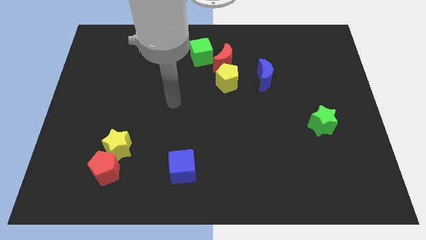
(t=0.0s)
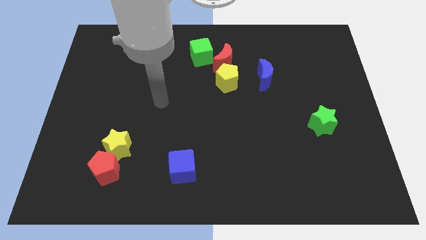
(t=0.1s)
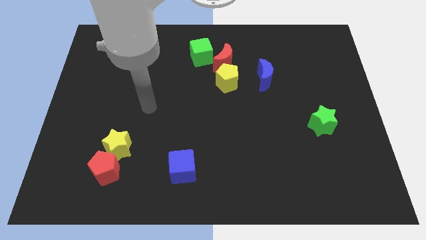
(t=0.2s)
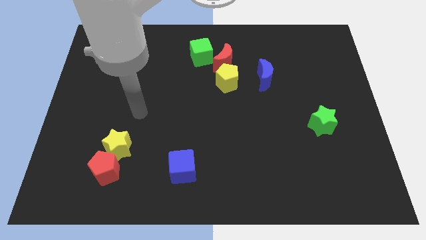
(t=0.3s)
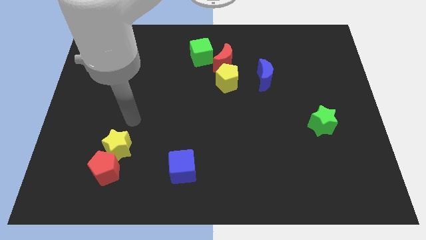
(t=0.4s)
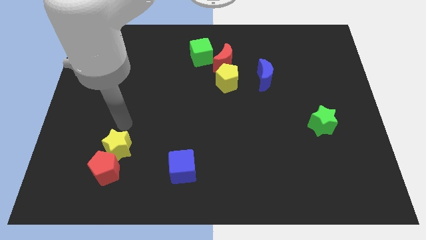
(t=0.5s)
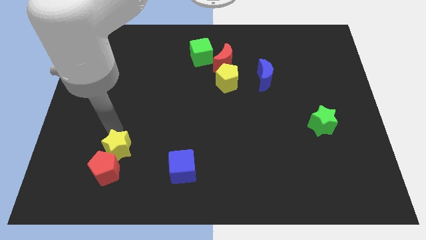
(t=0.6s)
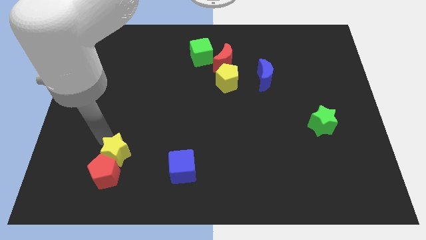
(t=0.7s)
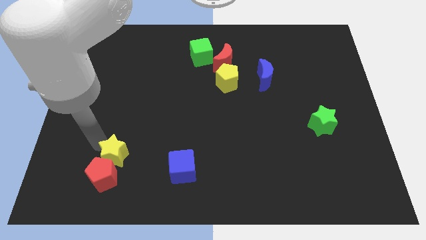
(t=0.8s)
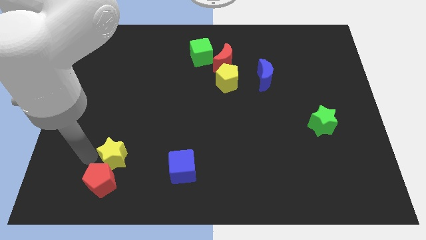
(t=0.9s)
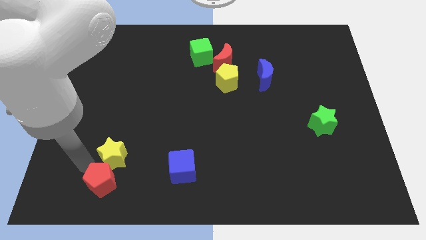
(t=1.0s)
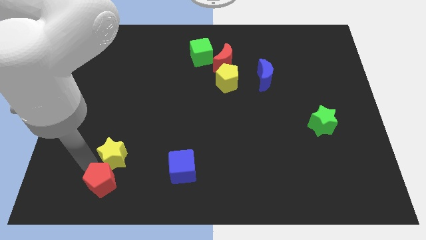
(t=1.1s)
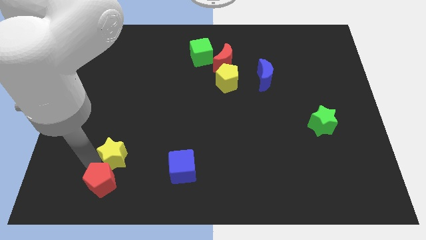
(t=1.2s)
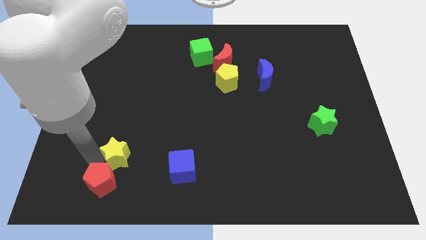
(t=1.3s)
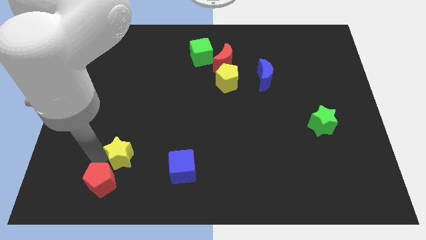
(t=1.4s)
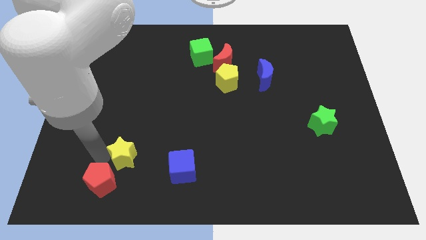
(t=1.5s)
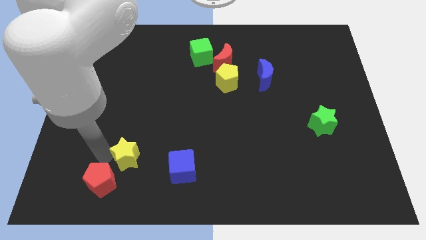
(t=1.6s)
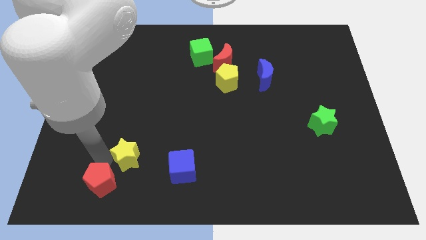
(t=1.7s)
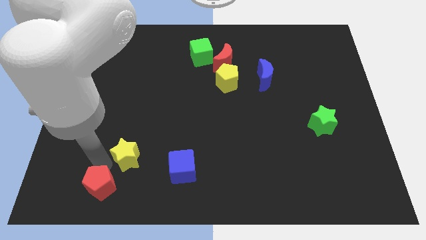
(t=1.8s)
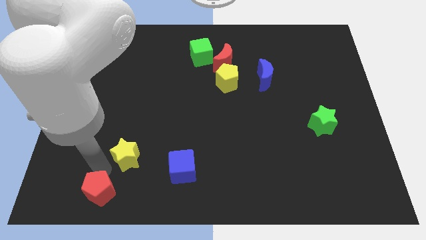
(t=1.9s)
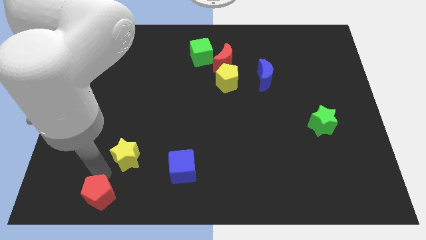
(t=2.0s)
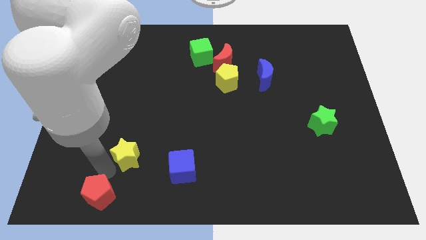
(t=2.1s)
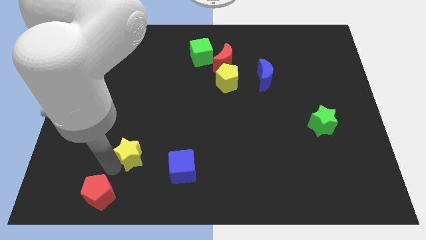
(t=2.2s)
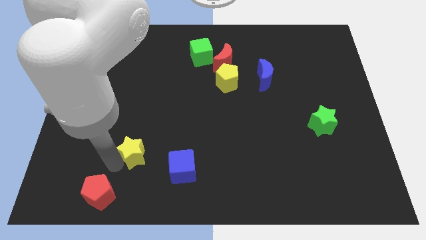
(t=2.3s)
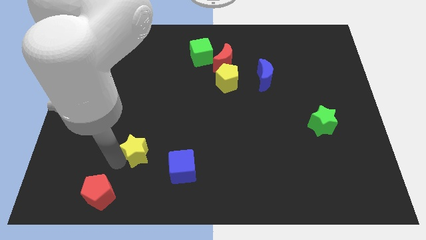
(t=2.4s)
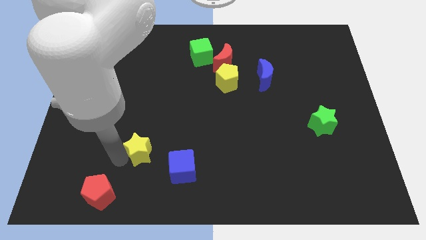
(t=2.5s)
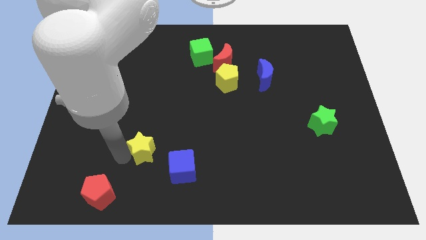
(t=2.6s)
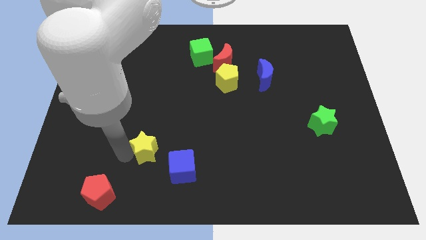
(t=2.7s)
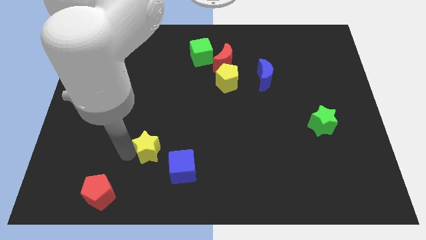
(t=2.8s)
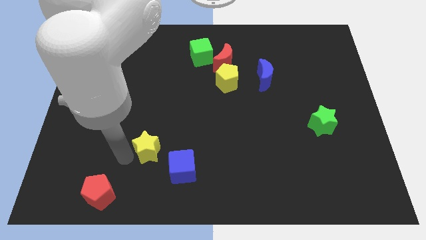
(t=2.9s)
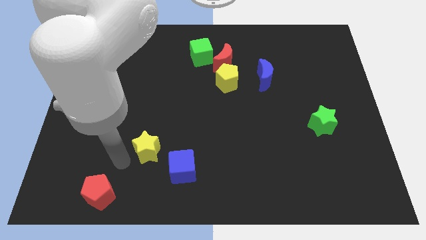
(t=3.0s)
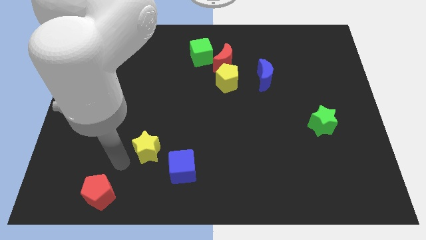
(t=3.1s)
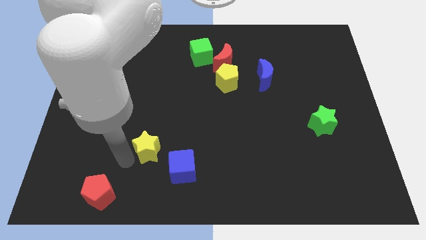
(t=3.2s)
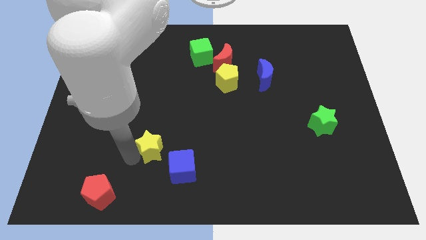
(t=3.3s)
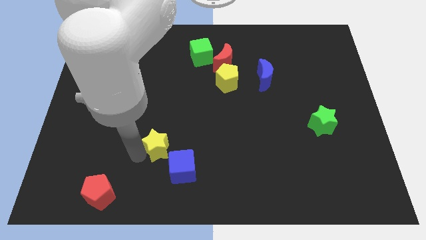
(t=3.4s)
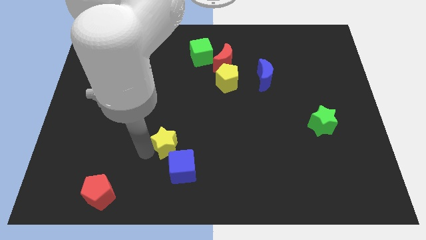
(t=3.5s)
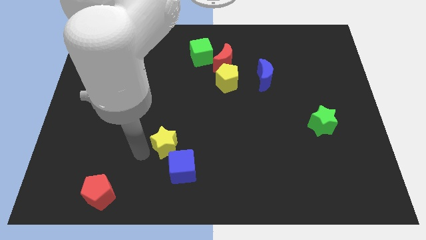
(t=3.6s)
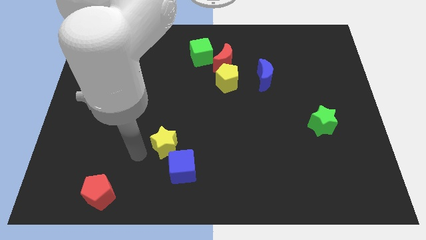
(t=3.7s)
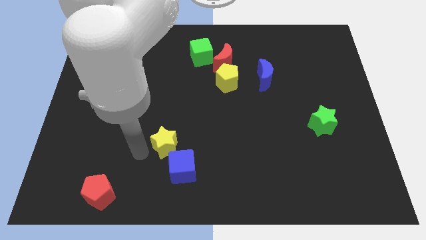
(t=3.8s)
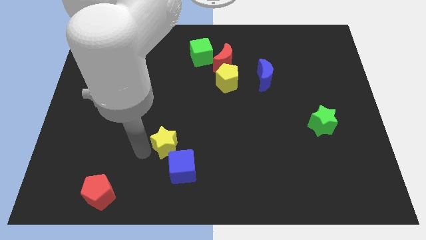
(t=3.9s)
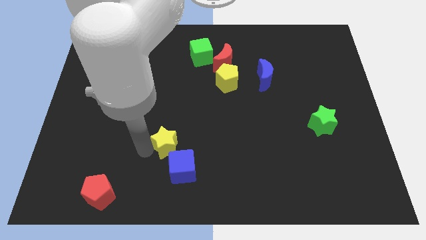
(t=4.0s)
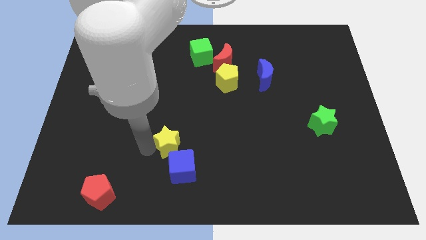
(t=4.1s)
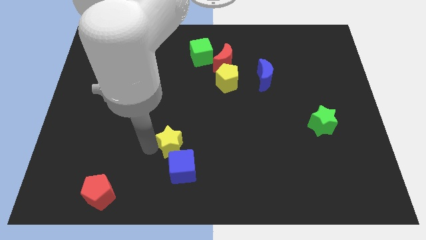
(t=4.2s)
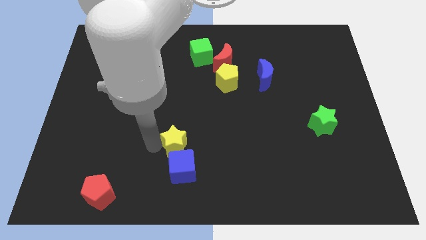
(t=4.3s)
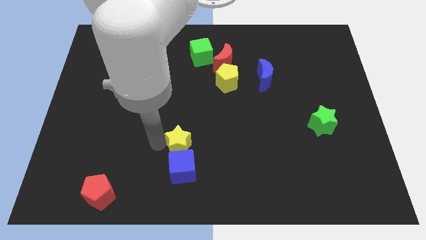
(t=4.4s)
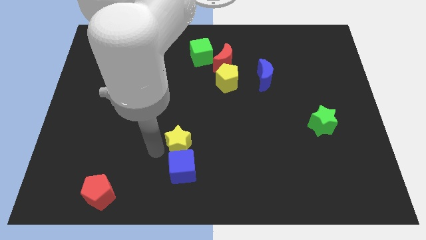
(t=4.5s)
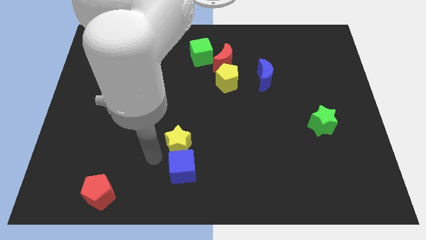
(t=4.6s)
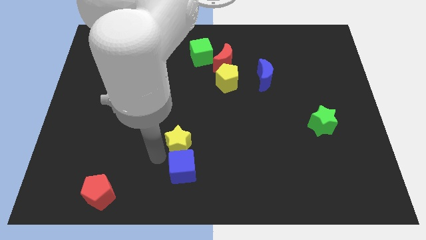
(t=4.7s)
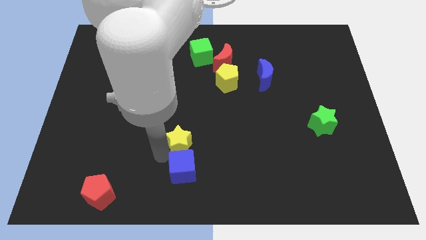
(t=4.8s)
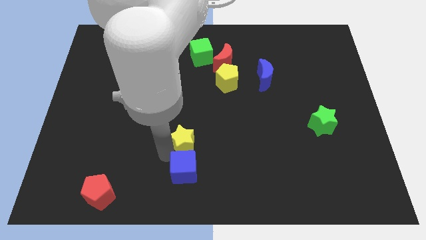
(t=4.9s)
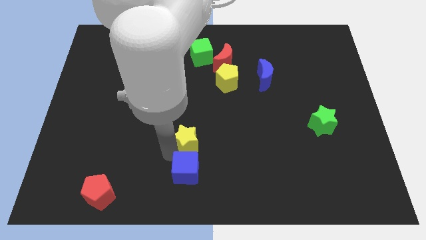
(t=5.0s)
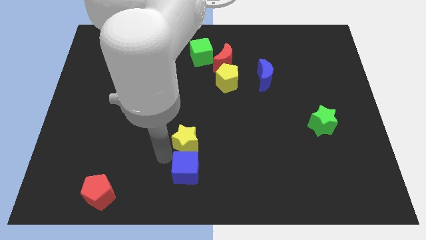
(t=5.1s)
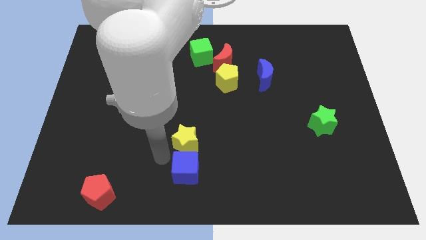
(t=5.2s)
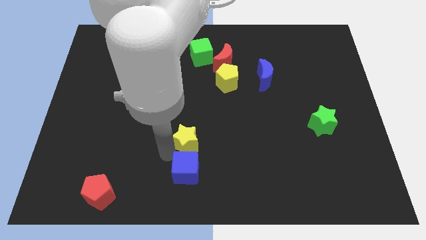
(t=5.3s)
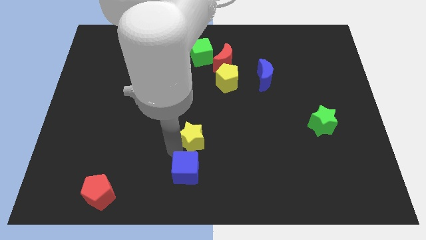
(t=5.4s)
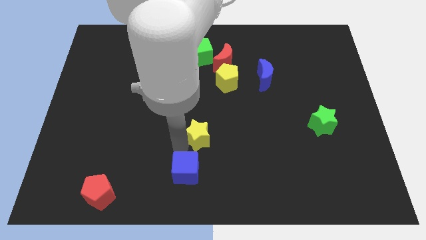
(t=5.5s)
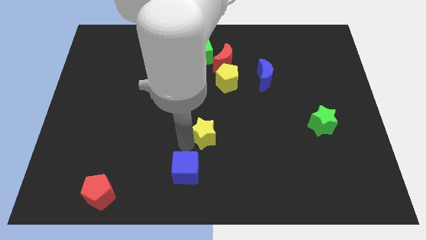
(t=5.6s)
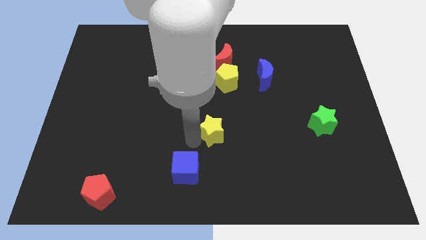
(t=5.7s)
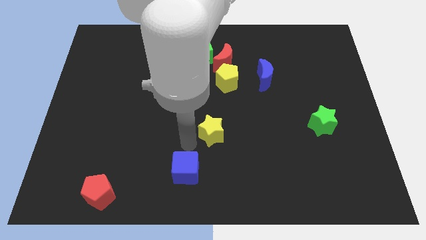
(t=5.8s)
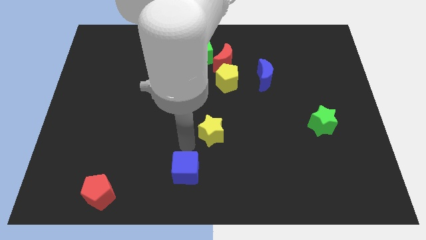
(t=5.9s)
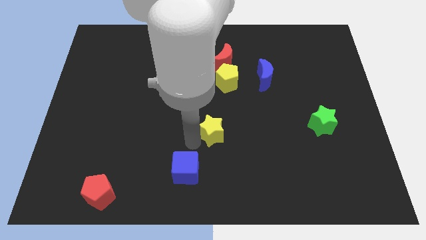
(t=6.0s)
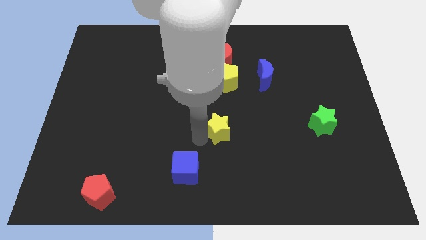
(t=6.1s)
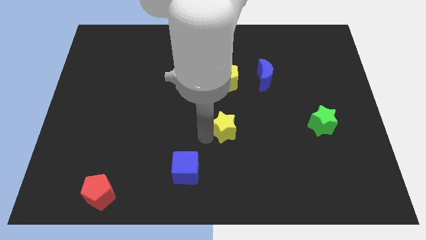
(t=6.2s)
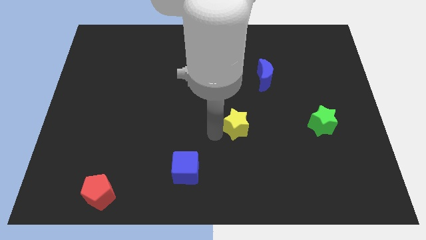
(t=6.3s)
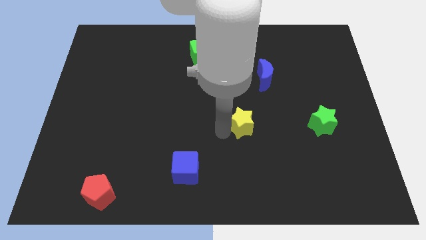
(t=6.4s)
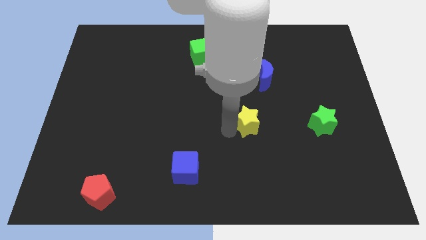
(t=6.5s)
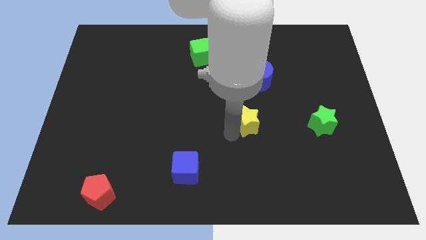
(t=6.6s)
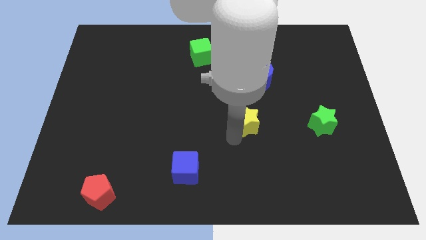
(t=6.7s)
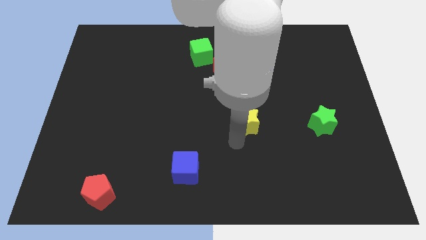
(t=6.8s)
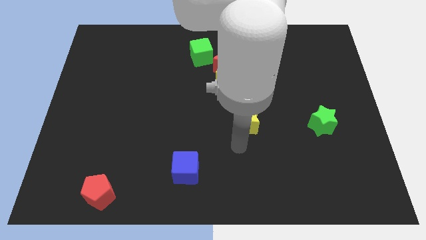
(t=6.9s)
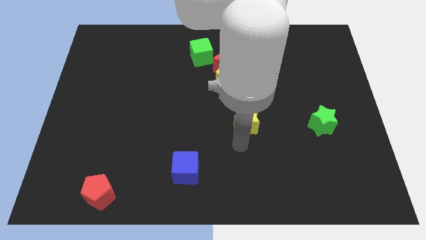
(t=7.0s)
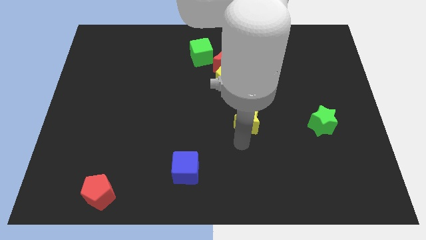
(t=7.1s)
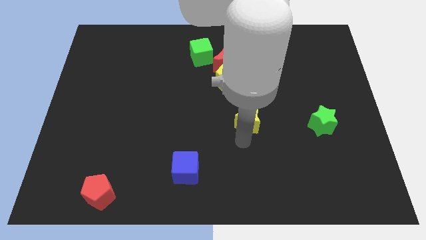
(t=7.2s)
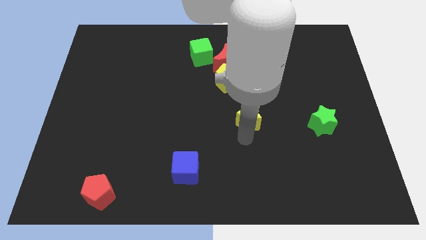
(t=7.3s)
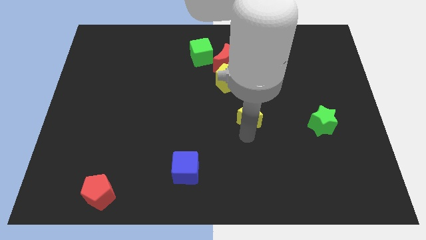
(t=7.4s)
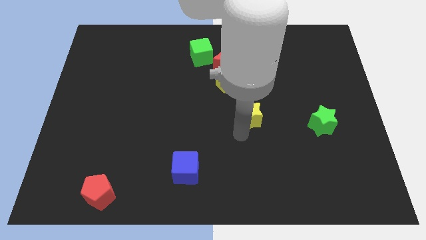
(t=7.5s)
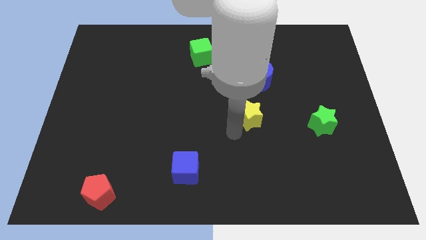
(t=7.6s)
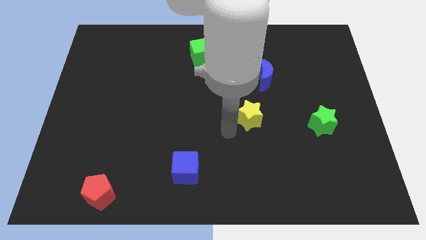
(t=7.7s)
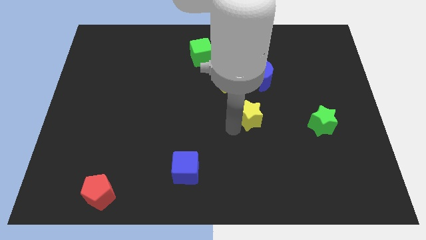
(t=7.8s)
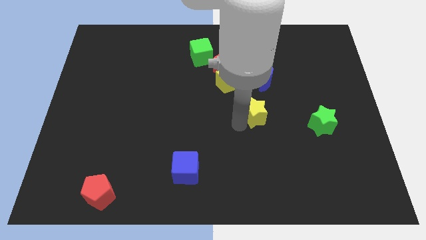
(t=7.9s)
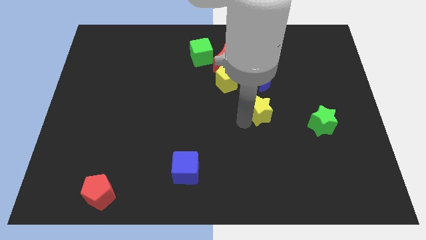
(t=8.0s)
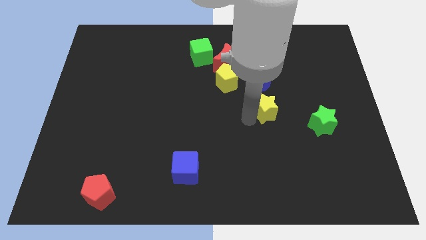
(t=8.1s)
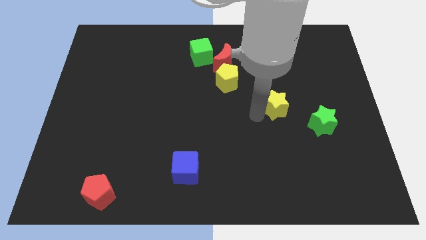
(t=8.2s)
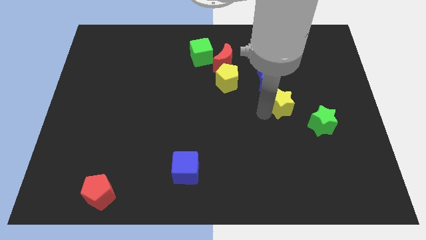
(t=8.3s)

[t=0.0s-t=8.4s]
move the yellow star to the bottom right of the blue moon
